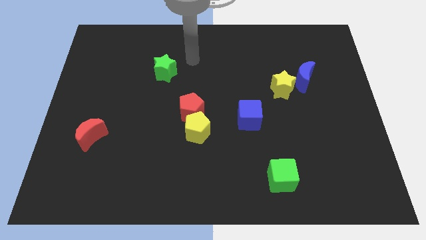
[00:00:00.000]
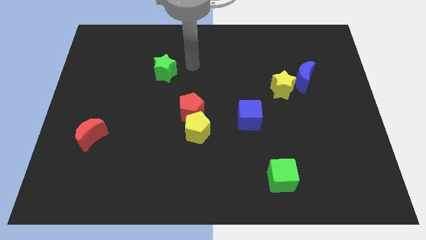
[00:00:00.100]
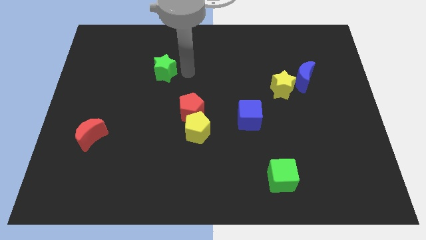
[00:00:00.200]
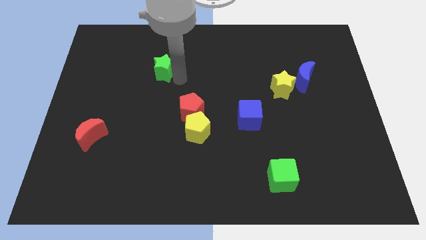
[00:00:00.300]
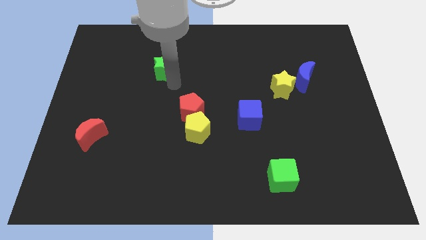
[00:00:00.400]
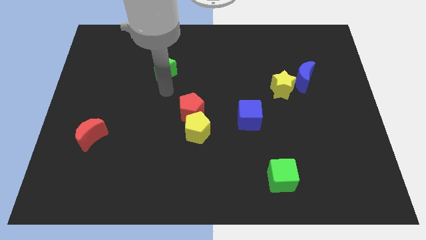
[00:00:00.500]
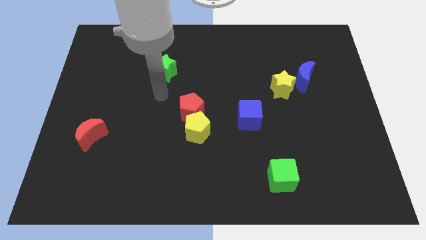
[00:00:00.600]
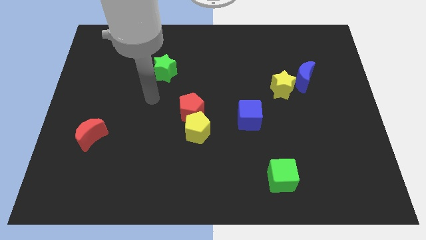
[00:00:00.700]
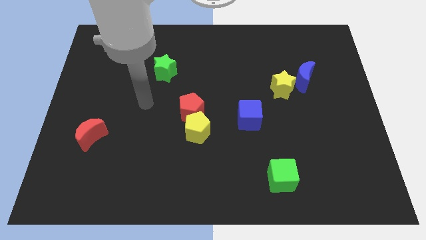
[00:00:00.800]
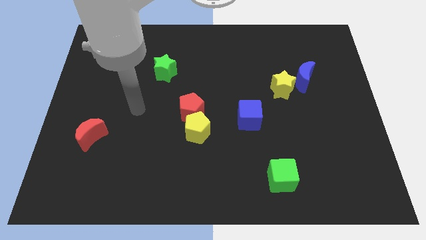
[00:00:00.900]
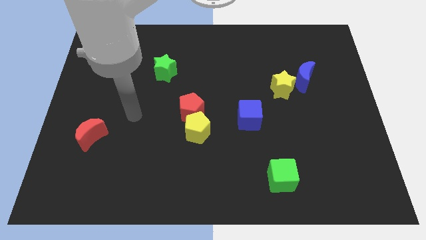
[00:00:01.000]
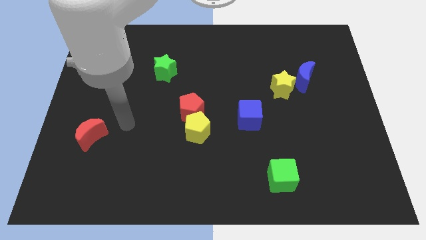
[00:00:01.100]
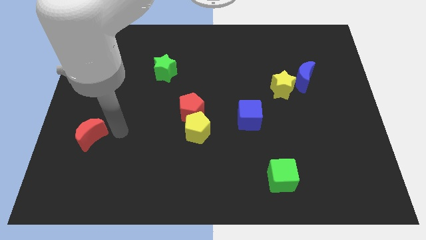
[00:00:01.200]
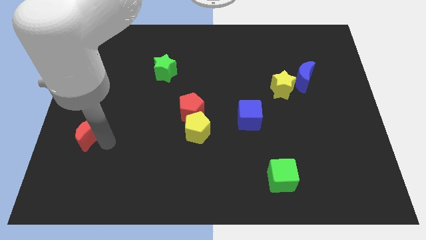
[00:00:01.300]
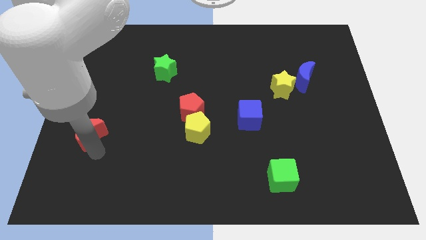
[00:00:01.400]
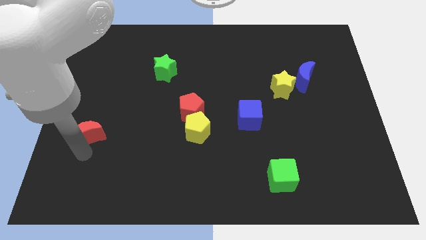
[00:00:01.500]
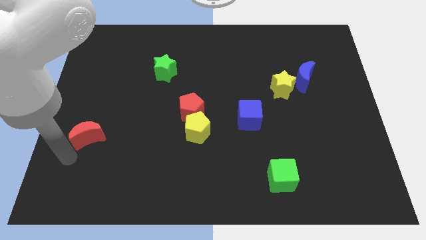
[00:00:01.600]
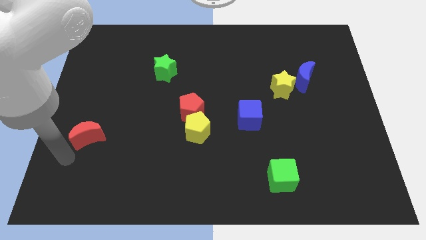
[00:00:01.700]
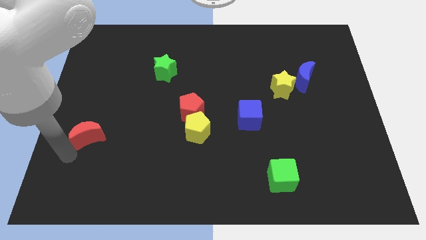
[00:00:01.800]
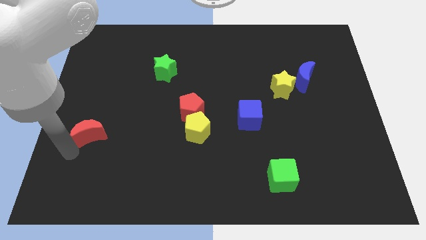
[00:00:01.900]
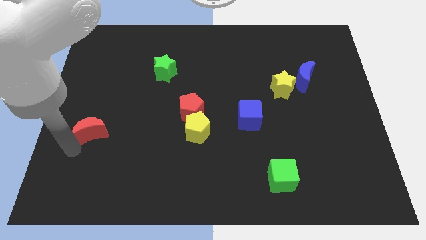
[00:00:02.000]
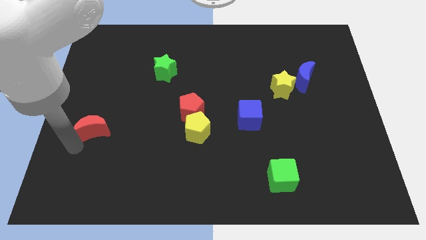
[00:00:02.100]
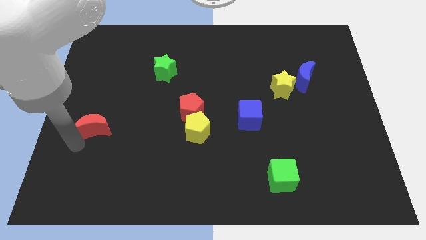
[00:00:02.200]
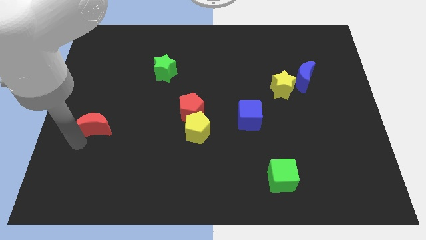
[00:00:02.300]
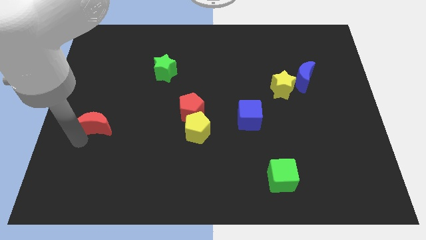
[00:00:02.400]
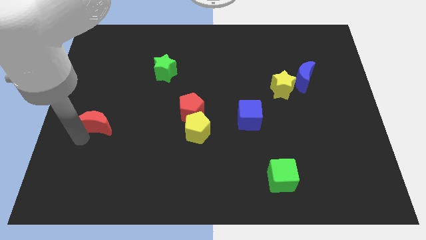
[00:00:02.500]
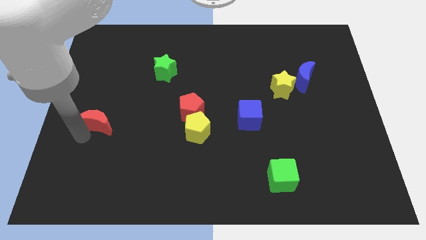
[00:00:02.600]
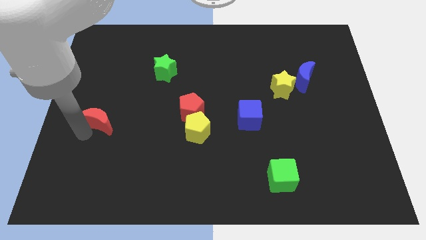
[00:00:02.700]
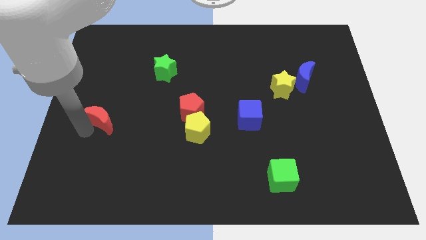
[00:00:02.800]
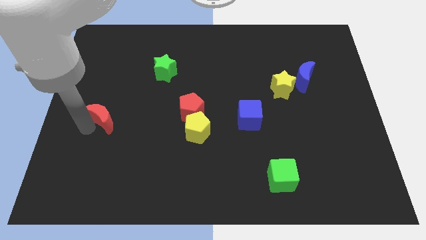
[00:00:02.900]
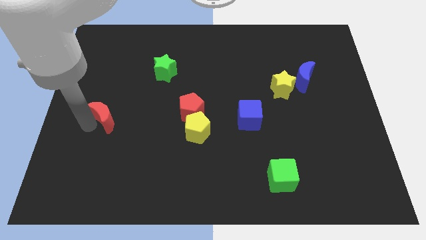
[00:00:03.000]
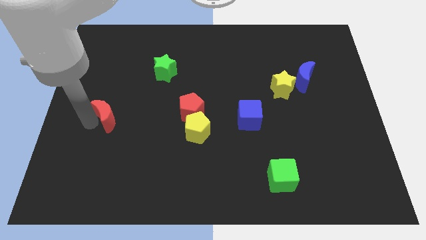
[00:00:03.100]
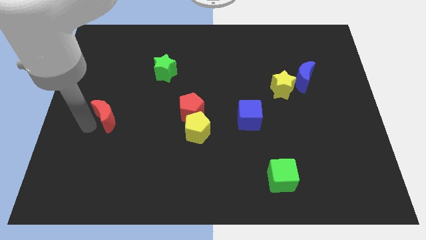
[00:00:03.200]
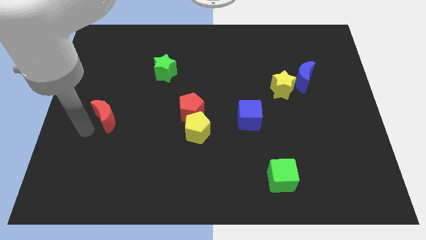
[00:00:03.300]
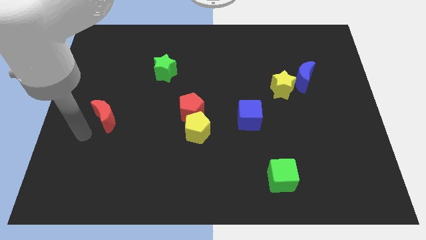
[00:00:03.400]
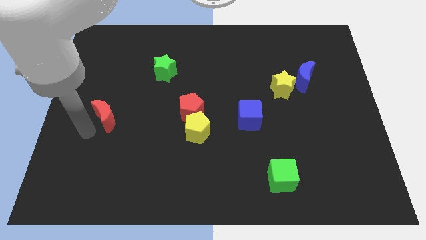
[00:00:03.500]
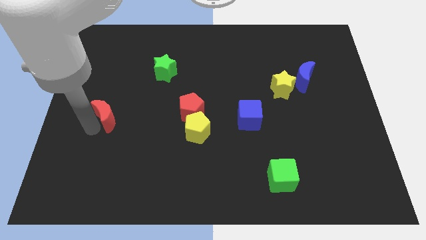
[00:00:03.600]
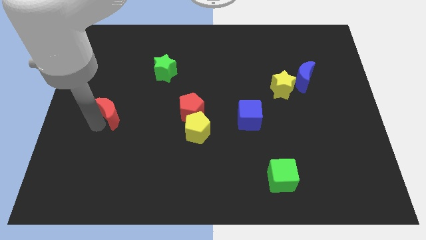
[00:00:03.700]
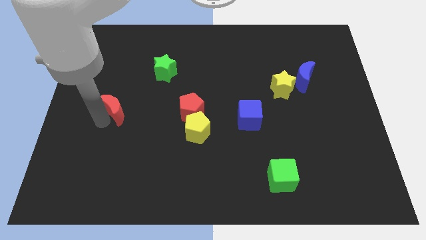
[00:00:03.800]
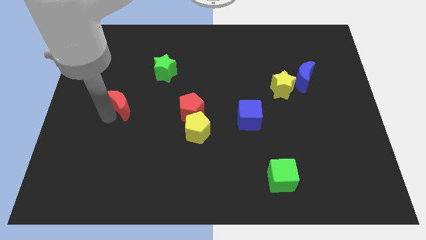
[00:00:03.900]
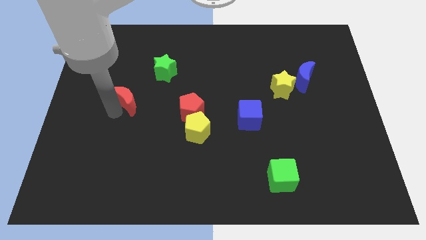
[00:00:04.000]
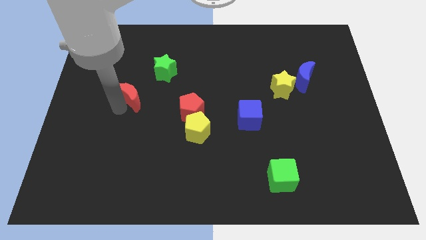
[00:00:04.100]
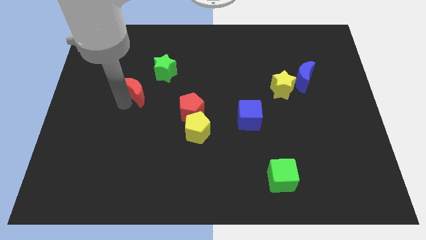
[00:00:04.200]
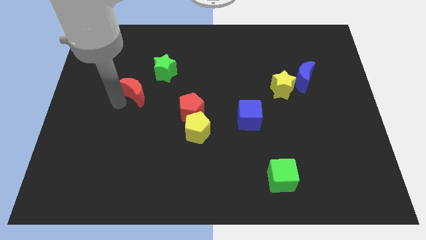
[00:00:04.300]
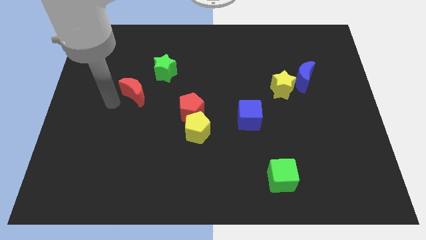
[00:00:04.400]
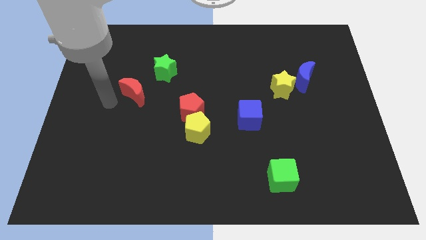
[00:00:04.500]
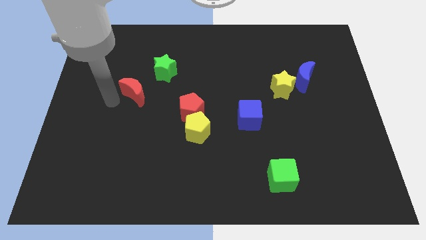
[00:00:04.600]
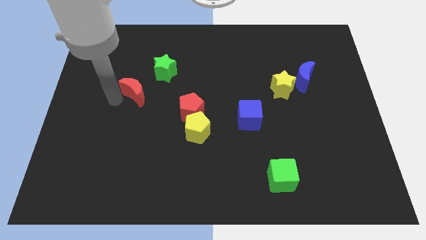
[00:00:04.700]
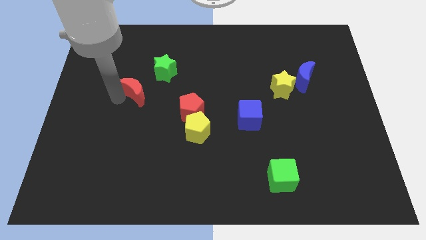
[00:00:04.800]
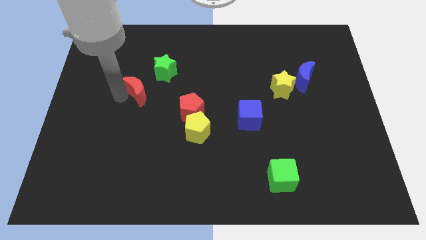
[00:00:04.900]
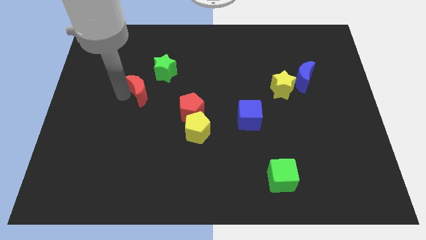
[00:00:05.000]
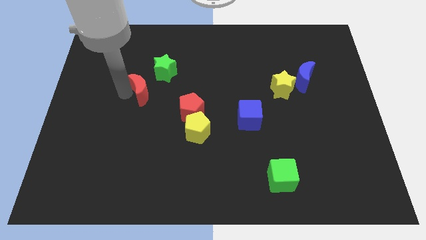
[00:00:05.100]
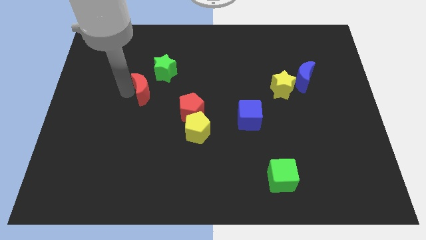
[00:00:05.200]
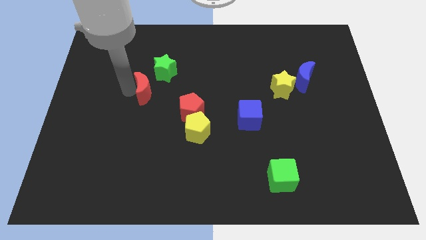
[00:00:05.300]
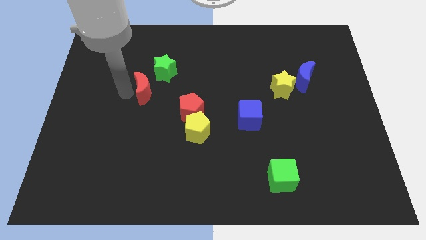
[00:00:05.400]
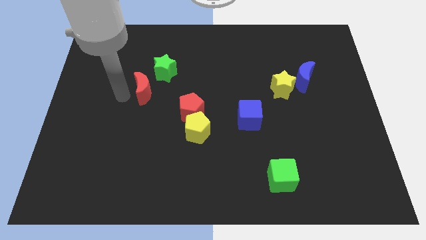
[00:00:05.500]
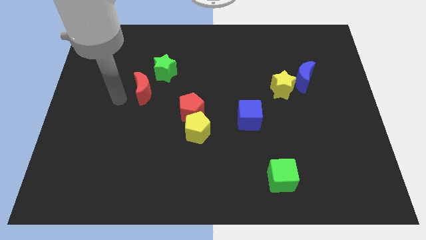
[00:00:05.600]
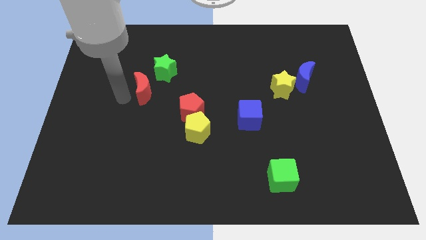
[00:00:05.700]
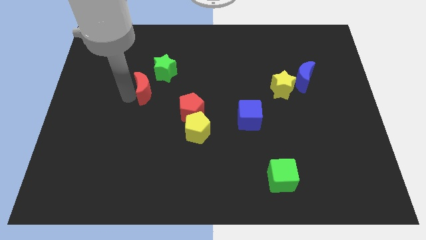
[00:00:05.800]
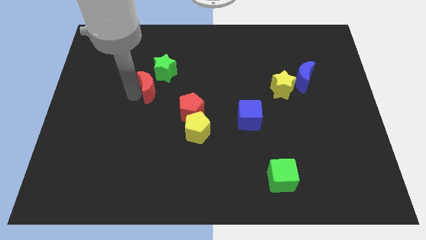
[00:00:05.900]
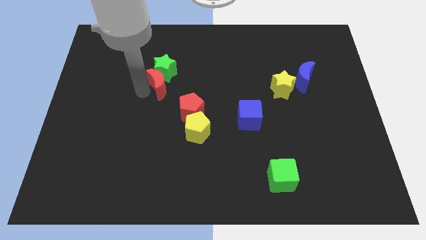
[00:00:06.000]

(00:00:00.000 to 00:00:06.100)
move the red moon upwards and then right

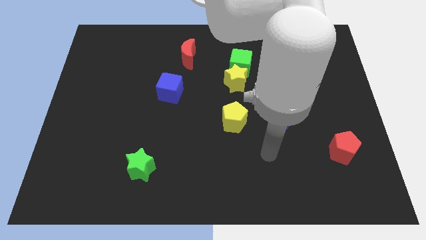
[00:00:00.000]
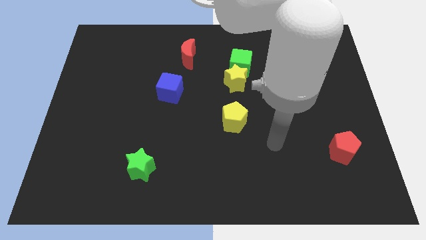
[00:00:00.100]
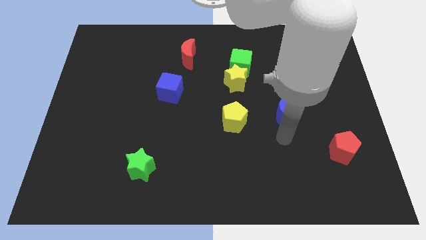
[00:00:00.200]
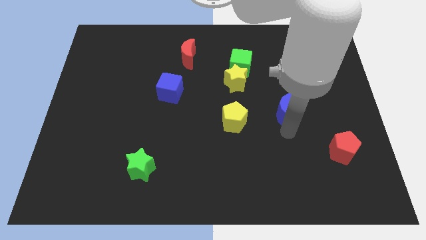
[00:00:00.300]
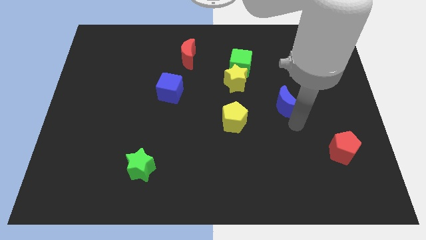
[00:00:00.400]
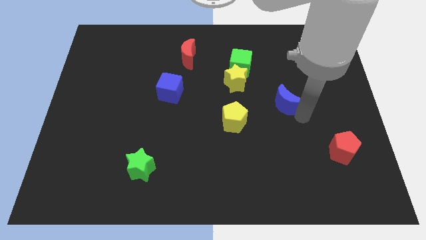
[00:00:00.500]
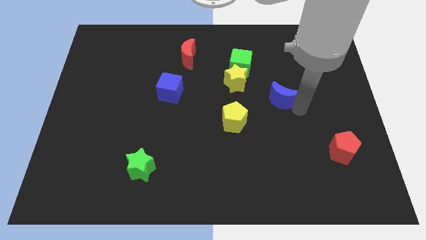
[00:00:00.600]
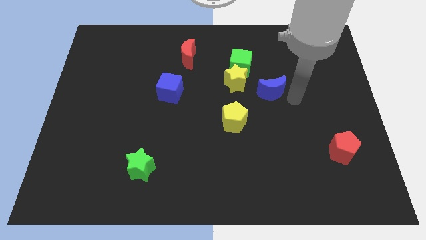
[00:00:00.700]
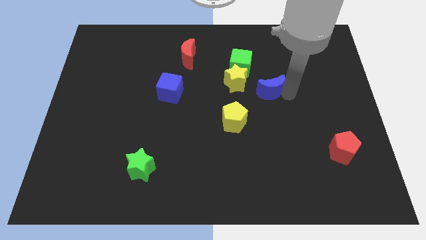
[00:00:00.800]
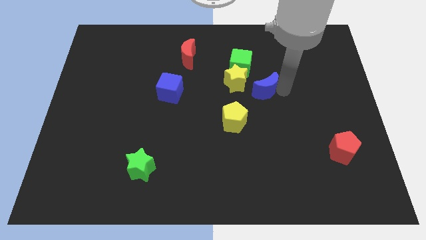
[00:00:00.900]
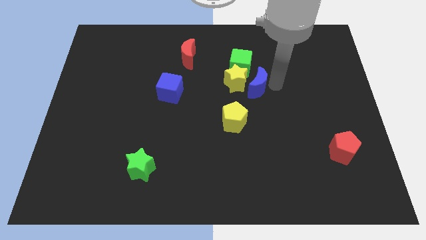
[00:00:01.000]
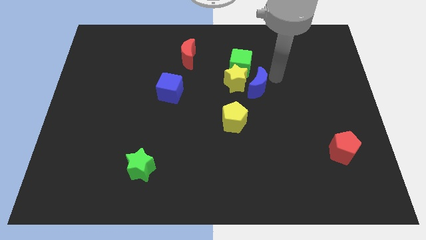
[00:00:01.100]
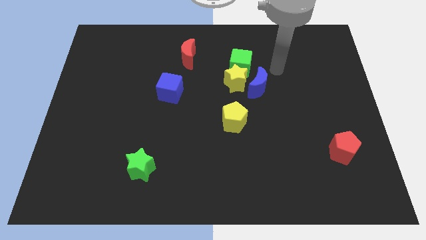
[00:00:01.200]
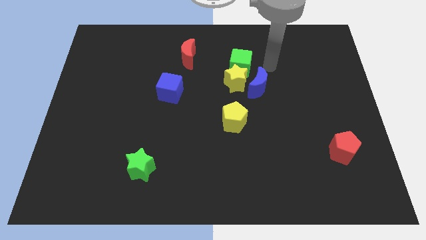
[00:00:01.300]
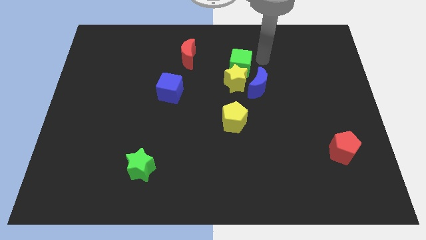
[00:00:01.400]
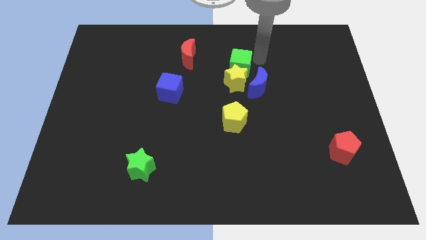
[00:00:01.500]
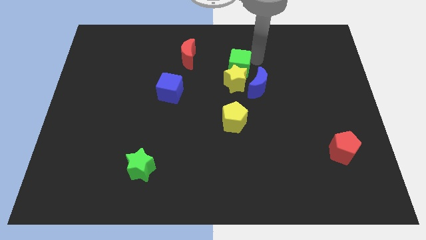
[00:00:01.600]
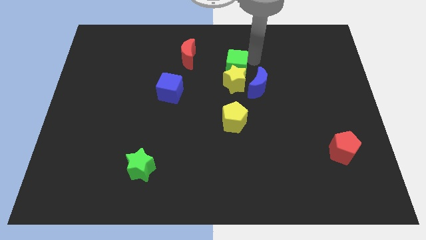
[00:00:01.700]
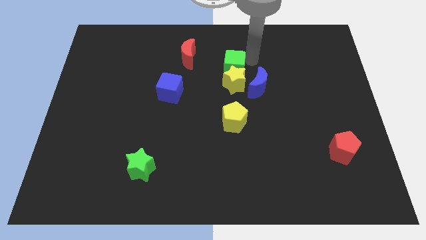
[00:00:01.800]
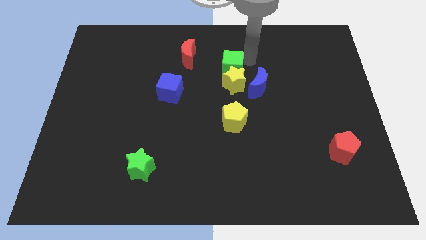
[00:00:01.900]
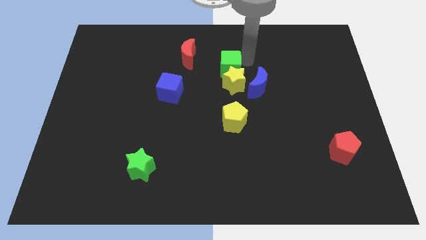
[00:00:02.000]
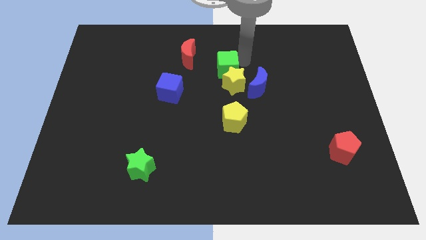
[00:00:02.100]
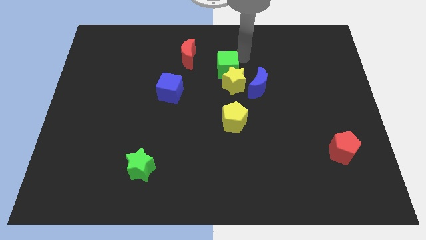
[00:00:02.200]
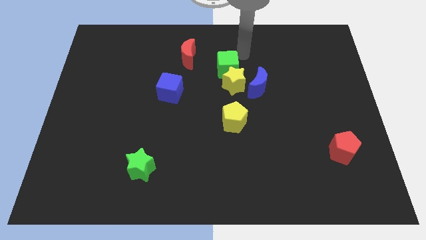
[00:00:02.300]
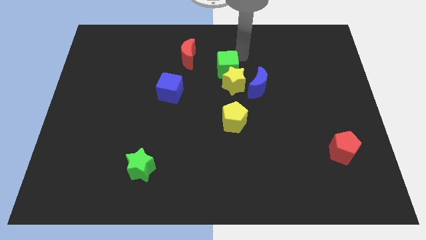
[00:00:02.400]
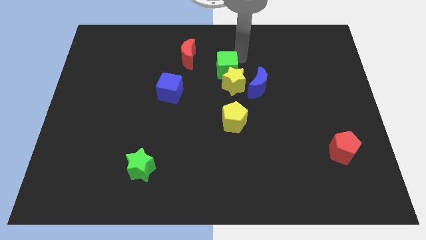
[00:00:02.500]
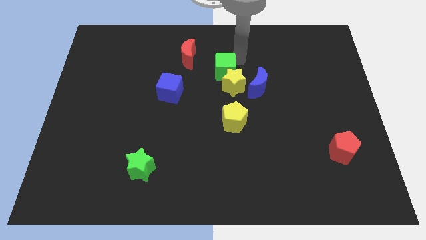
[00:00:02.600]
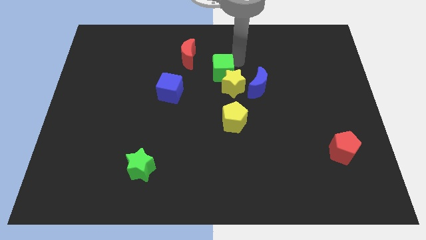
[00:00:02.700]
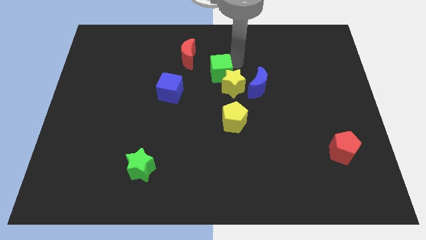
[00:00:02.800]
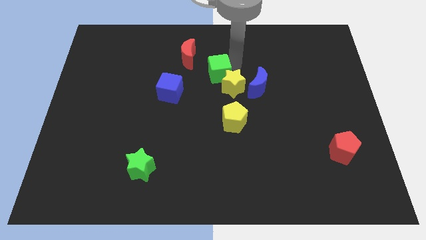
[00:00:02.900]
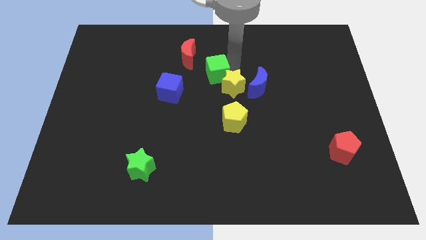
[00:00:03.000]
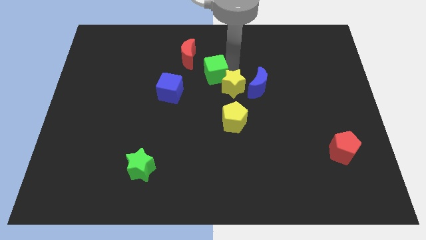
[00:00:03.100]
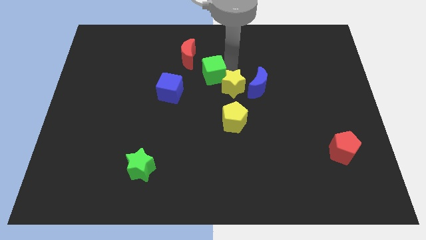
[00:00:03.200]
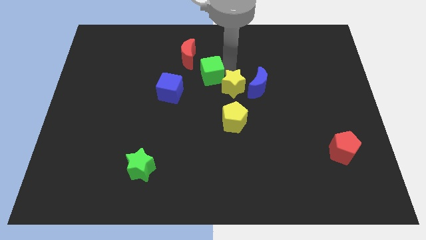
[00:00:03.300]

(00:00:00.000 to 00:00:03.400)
slide the green cube a little diagonally down and left
